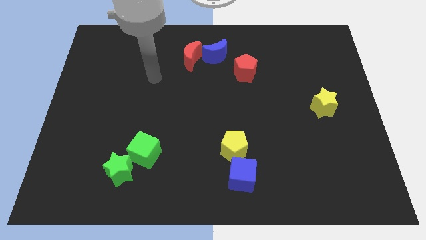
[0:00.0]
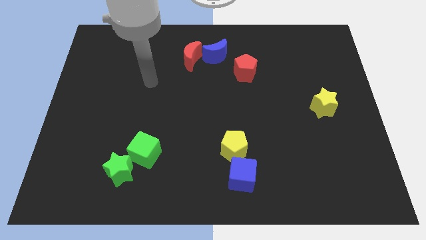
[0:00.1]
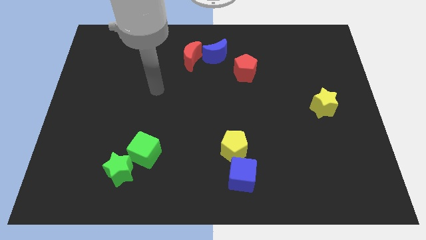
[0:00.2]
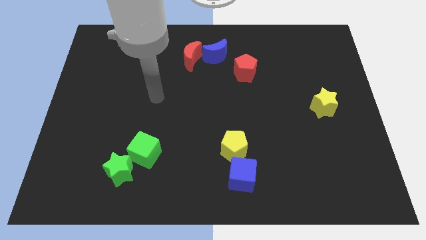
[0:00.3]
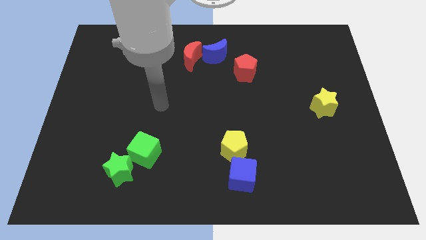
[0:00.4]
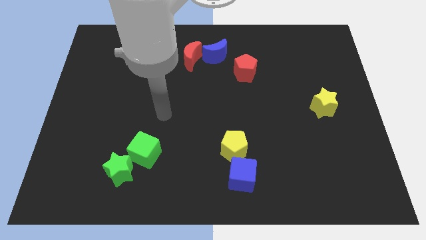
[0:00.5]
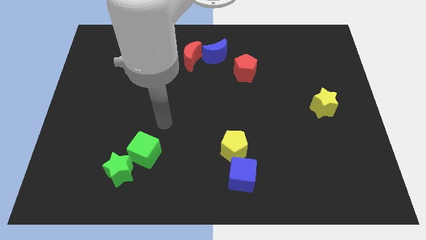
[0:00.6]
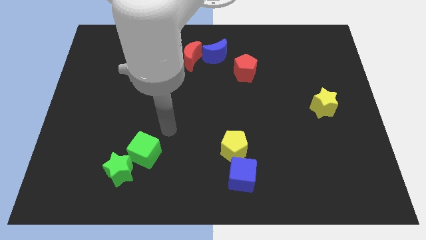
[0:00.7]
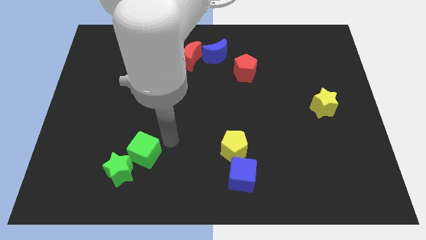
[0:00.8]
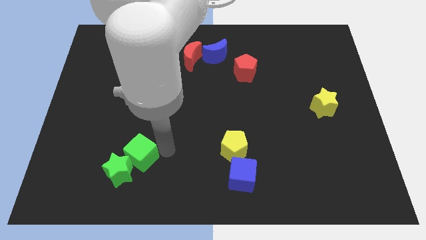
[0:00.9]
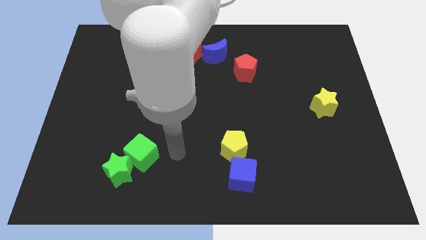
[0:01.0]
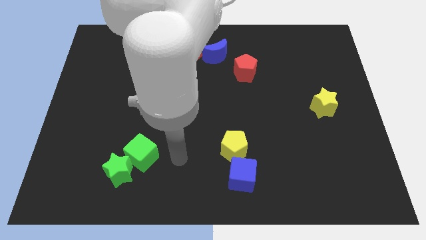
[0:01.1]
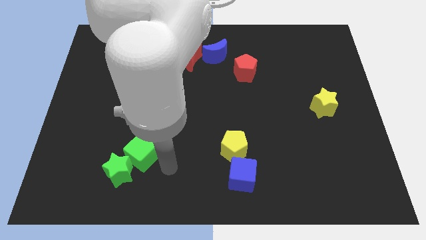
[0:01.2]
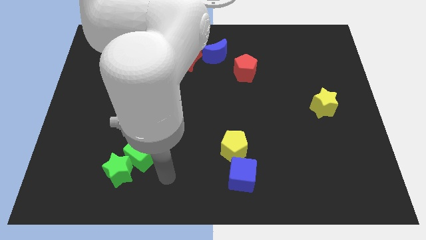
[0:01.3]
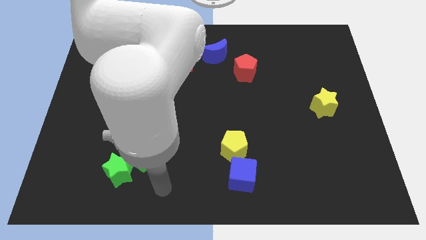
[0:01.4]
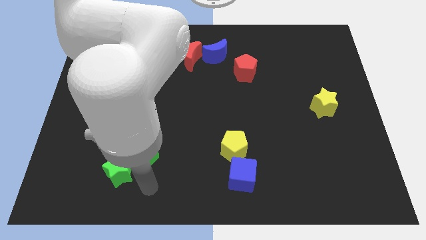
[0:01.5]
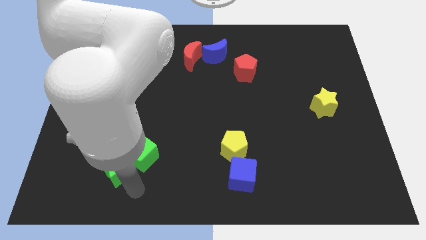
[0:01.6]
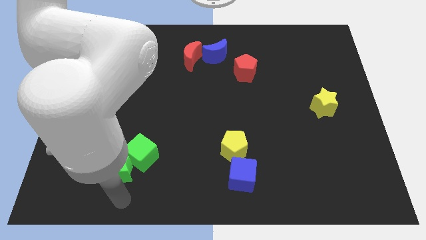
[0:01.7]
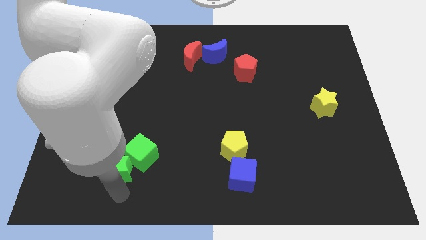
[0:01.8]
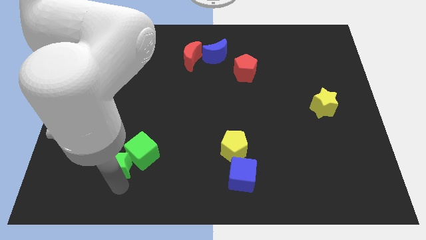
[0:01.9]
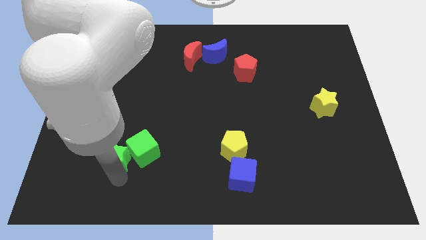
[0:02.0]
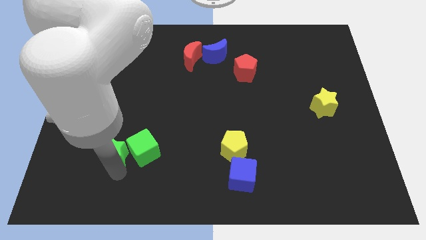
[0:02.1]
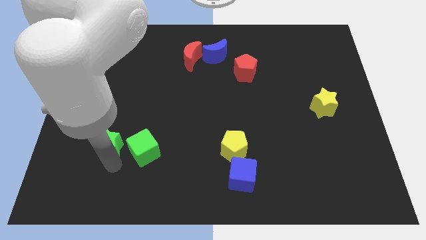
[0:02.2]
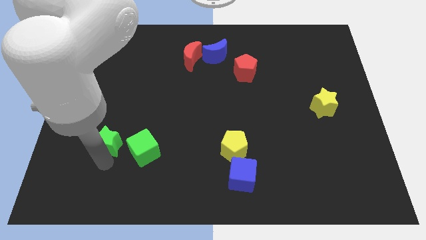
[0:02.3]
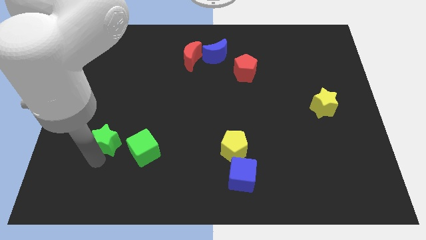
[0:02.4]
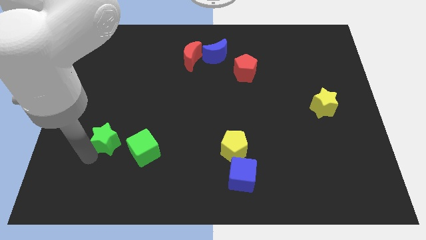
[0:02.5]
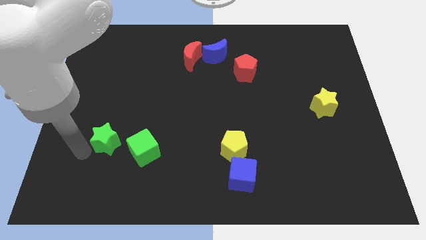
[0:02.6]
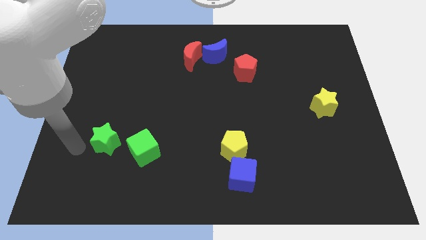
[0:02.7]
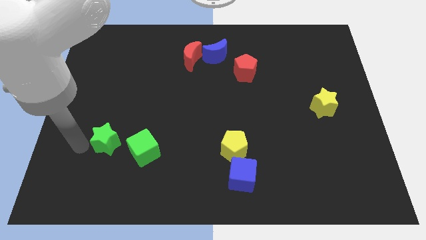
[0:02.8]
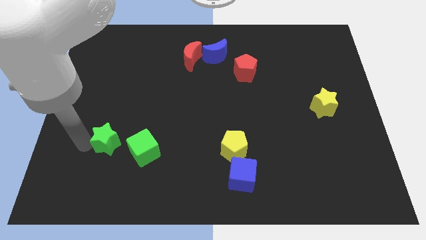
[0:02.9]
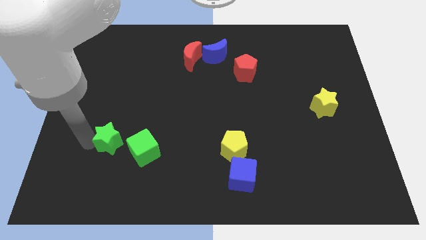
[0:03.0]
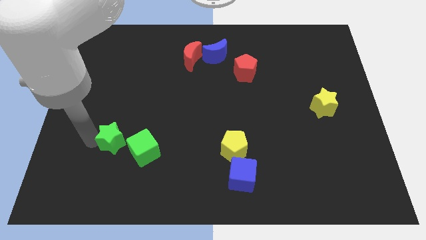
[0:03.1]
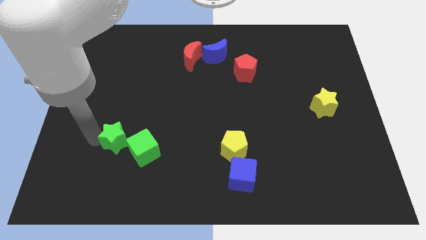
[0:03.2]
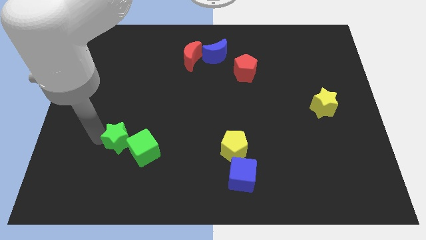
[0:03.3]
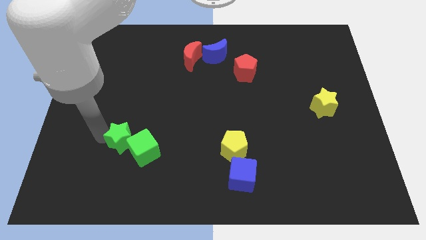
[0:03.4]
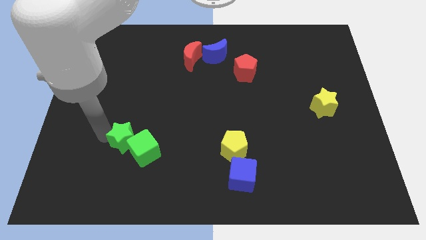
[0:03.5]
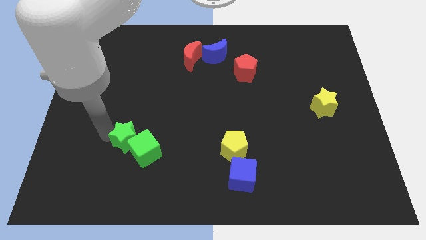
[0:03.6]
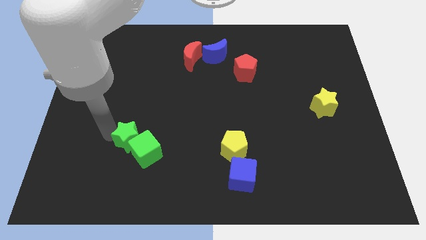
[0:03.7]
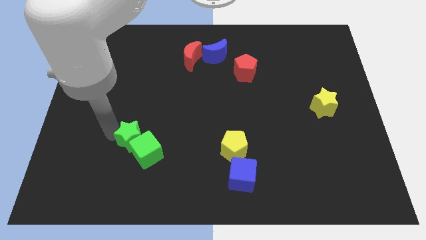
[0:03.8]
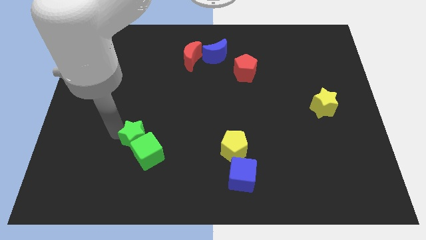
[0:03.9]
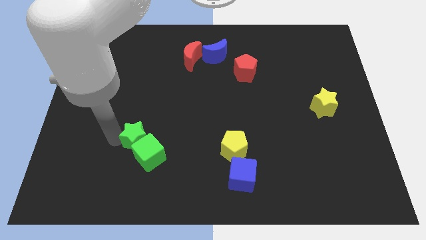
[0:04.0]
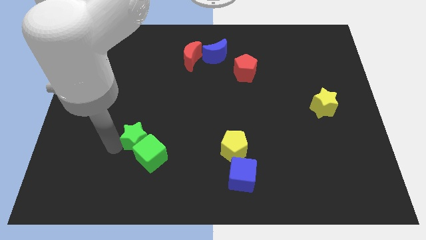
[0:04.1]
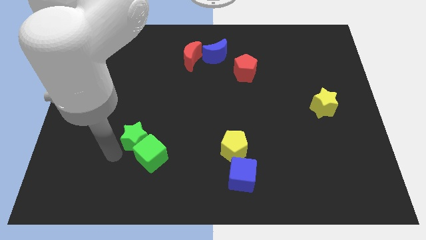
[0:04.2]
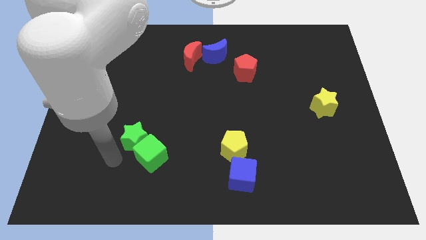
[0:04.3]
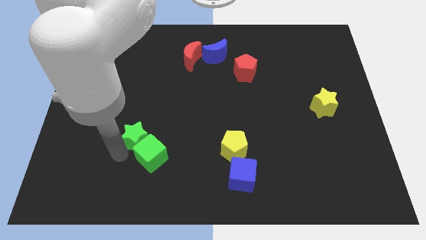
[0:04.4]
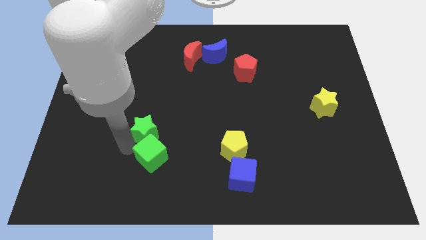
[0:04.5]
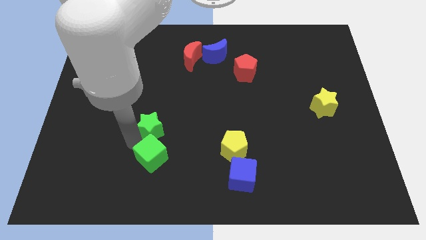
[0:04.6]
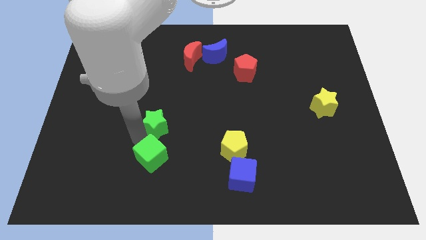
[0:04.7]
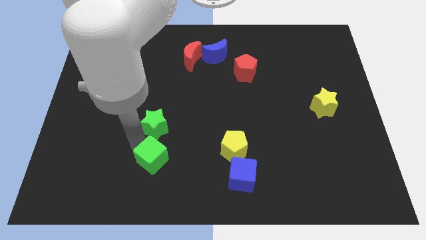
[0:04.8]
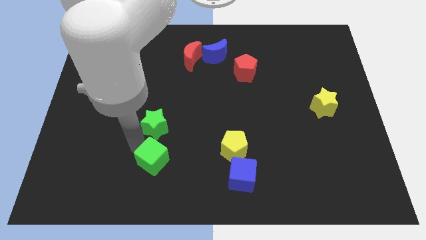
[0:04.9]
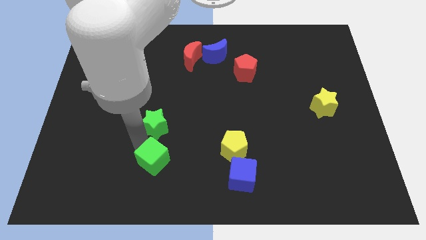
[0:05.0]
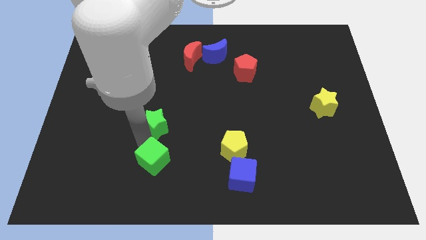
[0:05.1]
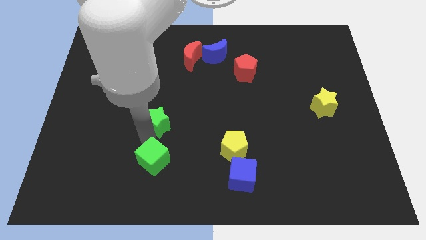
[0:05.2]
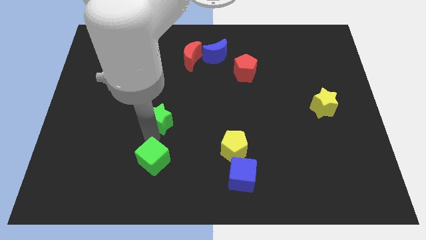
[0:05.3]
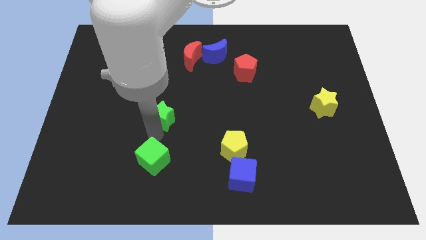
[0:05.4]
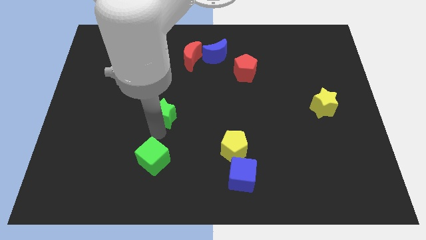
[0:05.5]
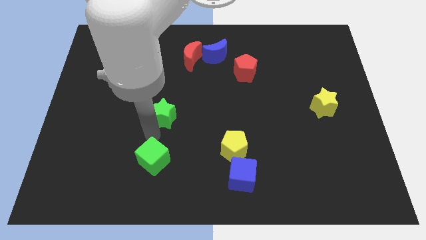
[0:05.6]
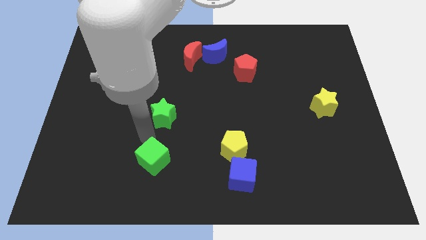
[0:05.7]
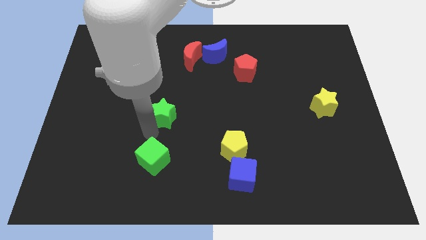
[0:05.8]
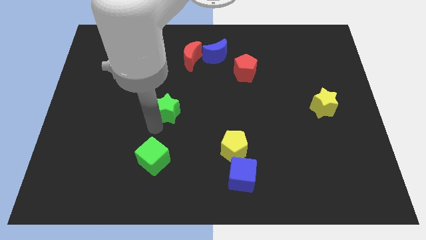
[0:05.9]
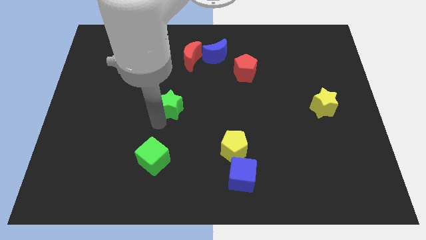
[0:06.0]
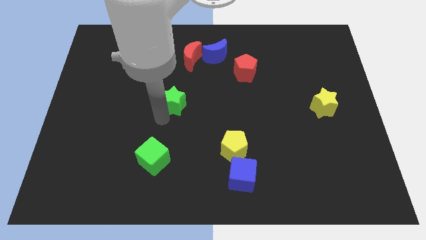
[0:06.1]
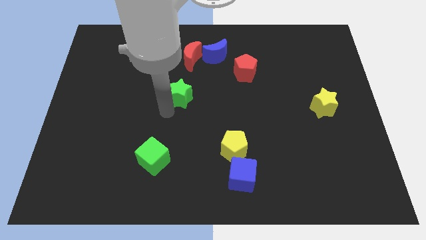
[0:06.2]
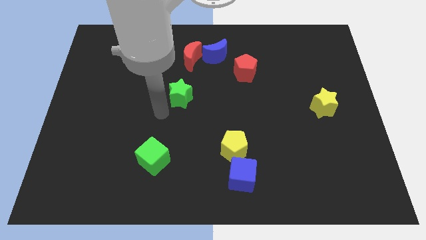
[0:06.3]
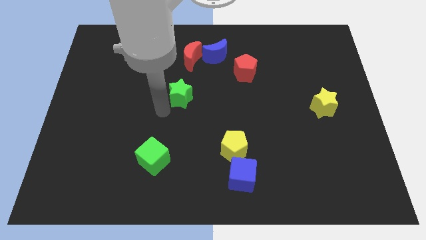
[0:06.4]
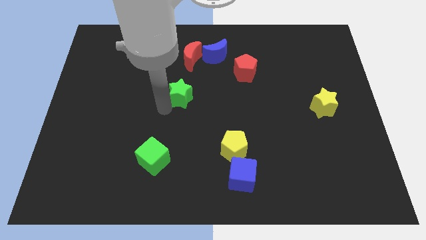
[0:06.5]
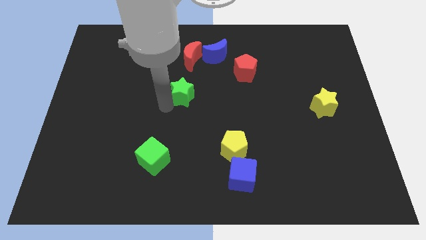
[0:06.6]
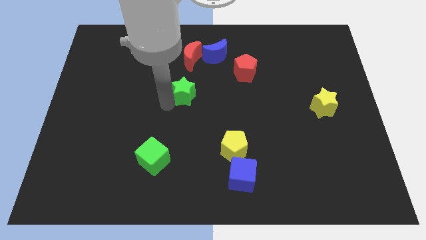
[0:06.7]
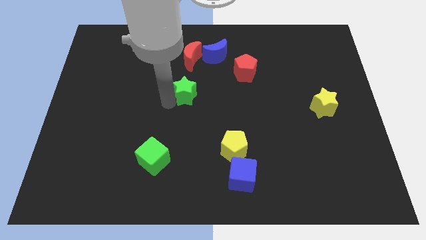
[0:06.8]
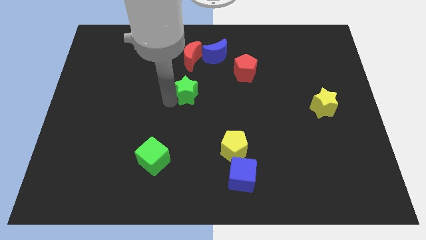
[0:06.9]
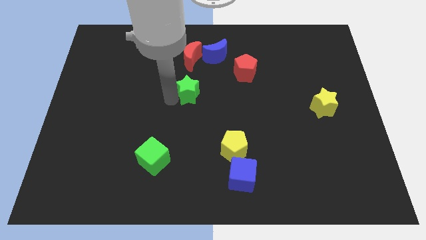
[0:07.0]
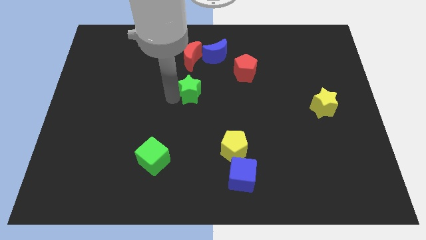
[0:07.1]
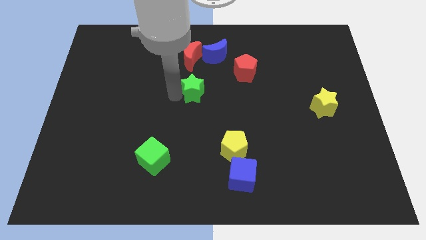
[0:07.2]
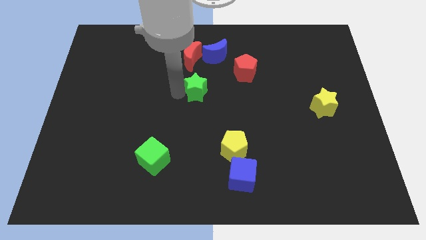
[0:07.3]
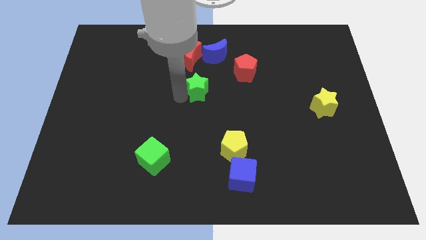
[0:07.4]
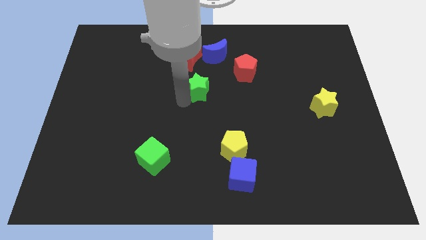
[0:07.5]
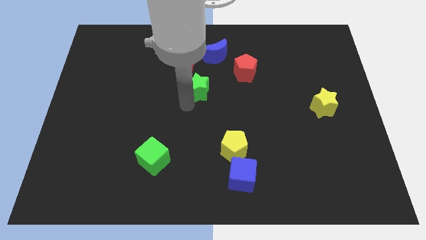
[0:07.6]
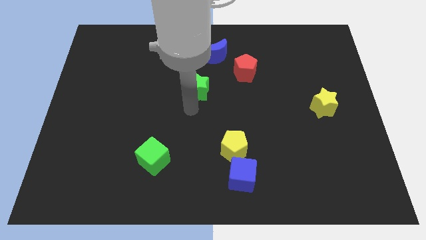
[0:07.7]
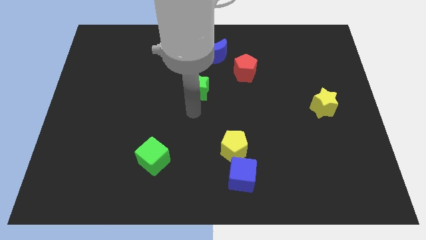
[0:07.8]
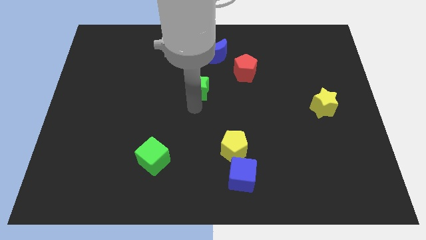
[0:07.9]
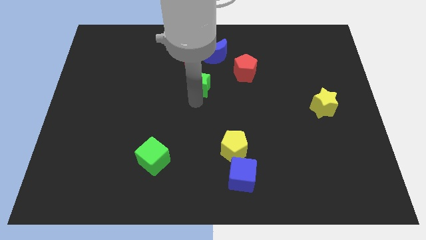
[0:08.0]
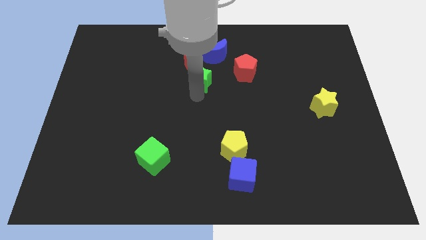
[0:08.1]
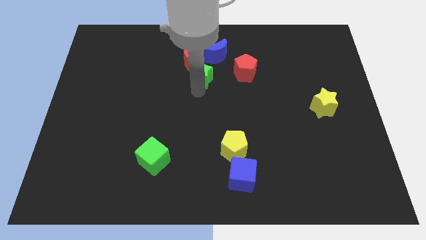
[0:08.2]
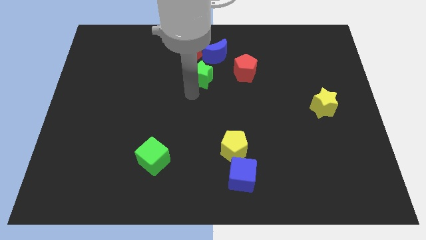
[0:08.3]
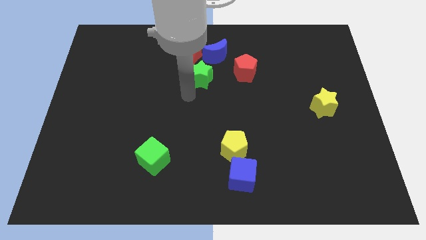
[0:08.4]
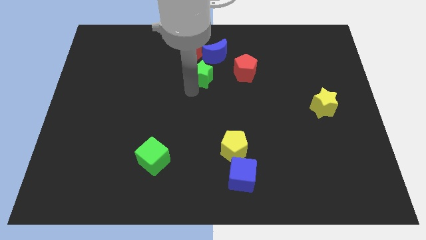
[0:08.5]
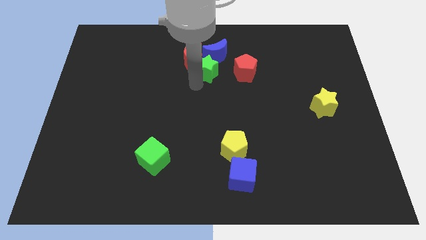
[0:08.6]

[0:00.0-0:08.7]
slide the green star towards the blue moon
